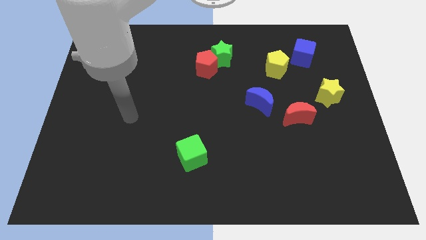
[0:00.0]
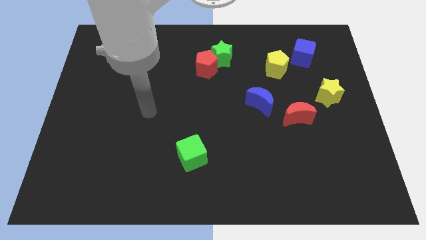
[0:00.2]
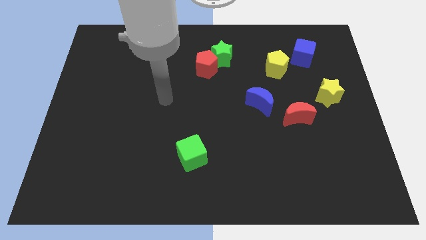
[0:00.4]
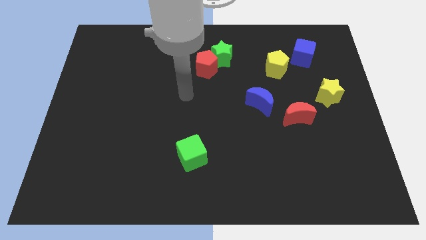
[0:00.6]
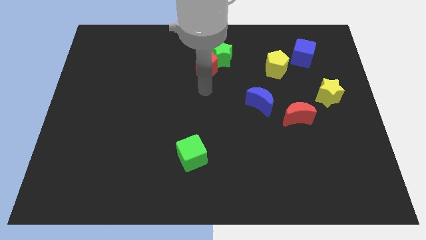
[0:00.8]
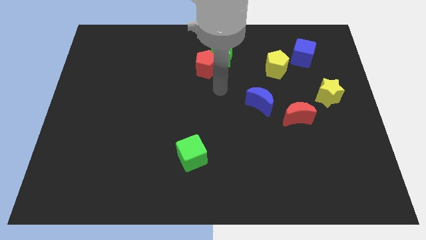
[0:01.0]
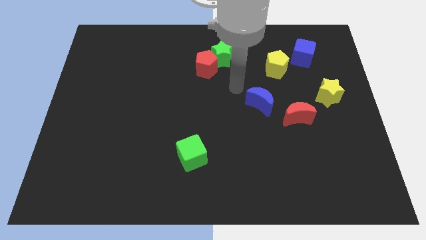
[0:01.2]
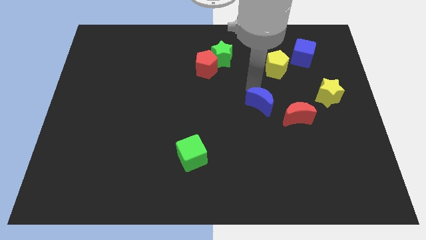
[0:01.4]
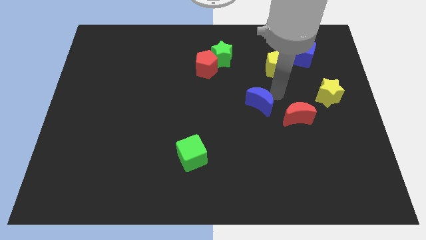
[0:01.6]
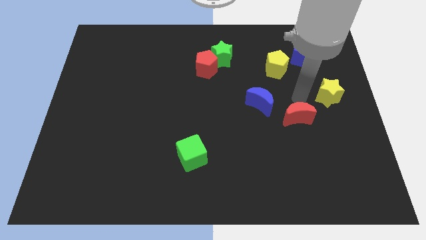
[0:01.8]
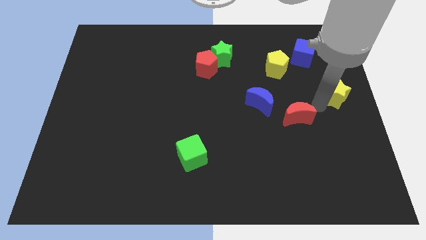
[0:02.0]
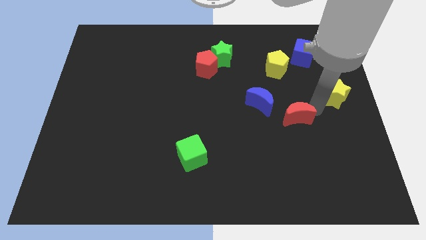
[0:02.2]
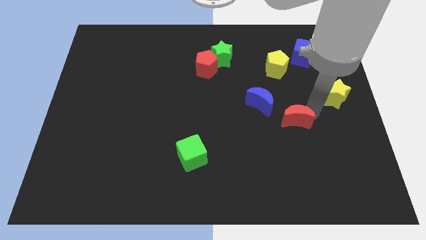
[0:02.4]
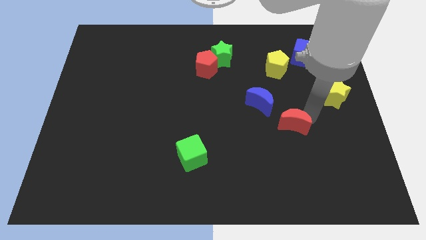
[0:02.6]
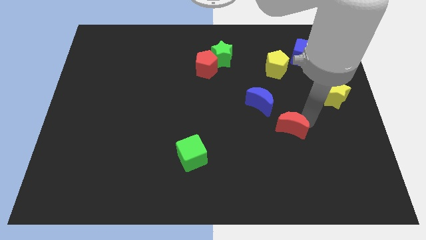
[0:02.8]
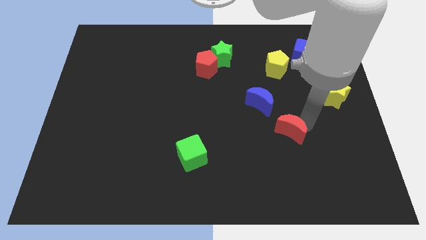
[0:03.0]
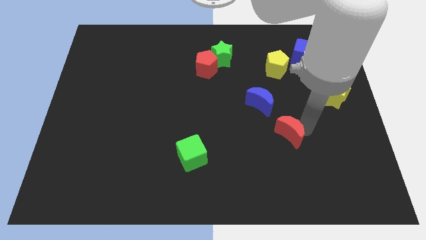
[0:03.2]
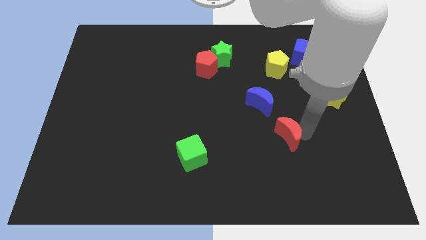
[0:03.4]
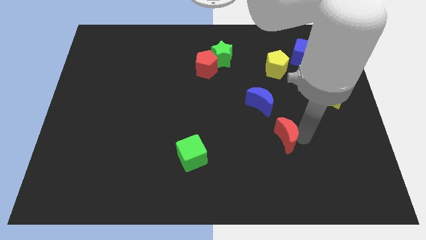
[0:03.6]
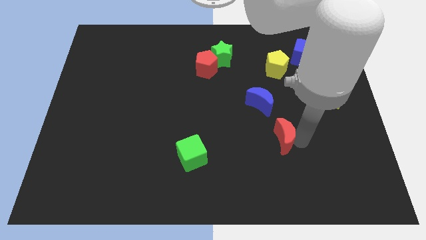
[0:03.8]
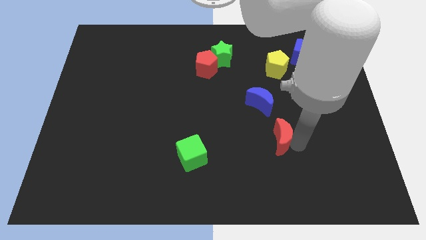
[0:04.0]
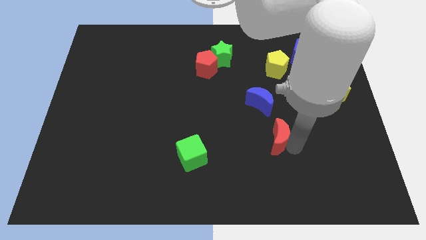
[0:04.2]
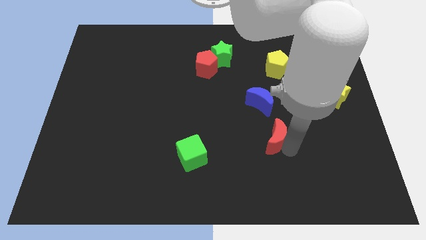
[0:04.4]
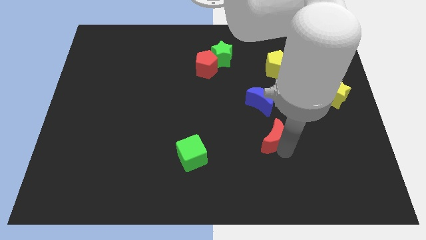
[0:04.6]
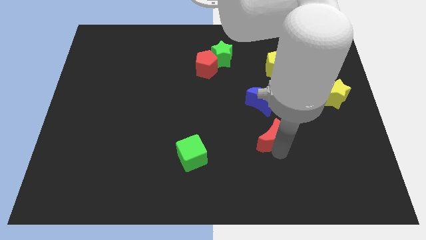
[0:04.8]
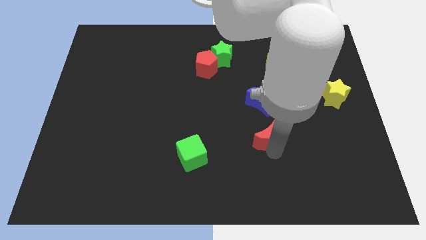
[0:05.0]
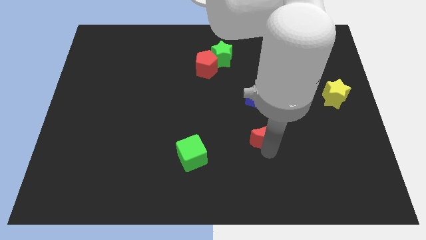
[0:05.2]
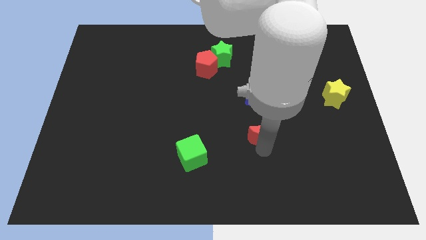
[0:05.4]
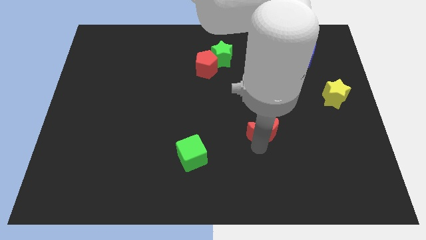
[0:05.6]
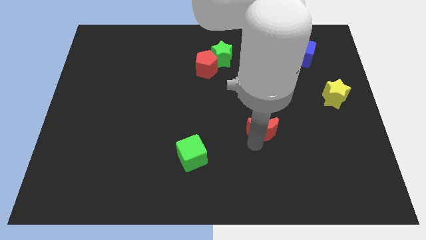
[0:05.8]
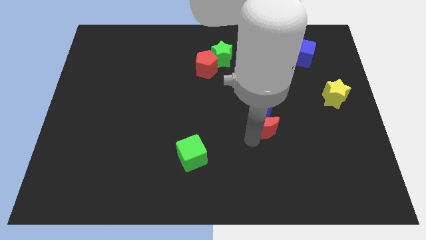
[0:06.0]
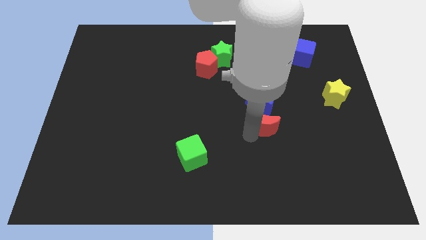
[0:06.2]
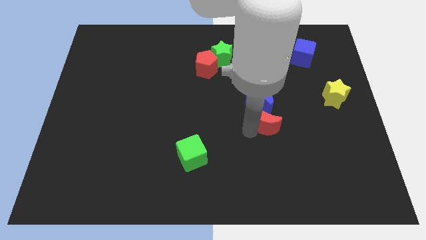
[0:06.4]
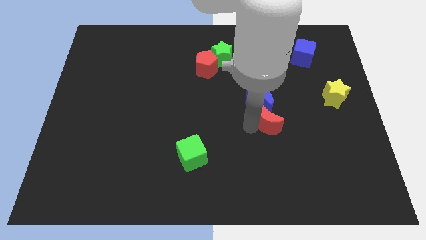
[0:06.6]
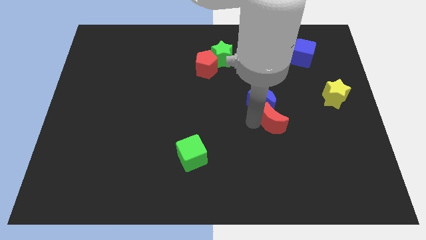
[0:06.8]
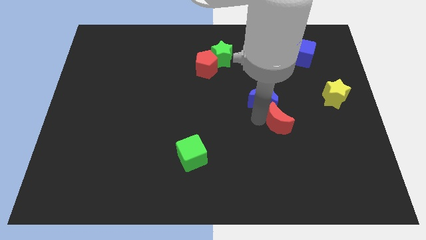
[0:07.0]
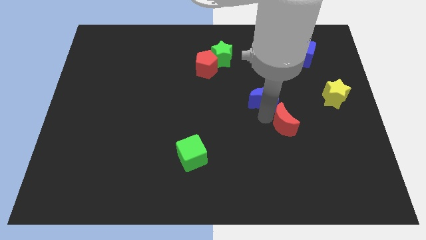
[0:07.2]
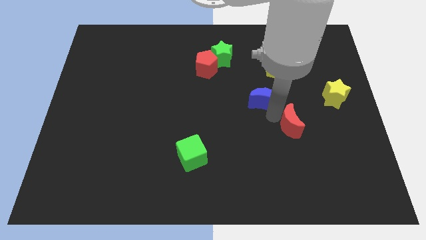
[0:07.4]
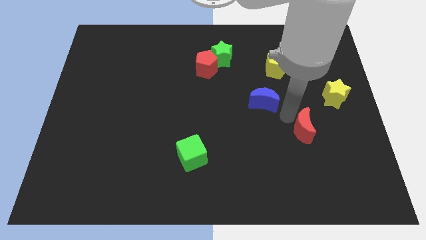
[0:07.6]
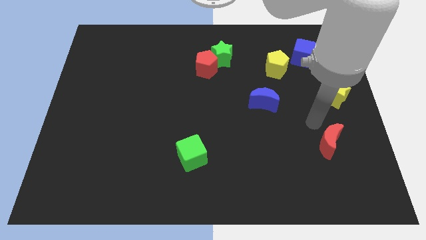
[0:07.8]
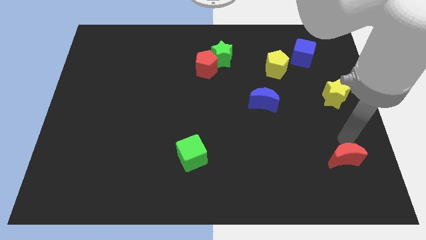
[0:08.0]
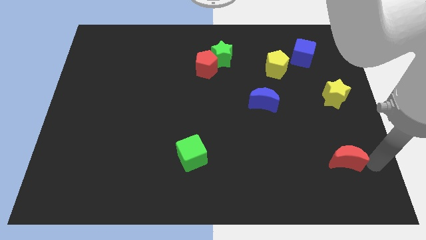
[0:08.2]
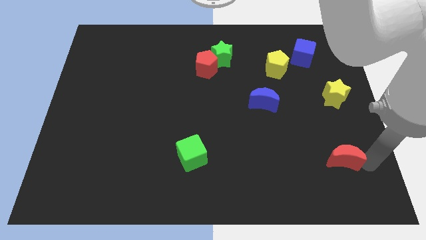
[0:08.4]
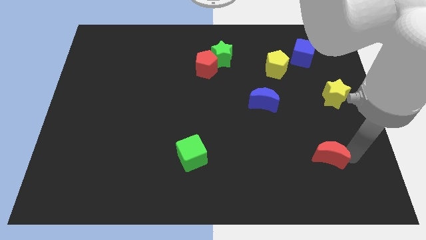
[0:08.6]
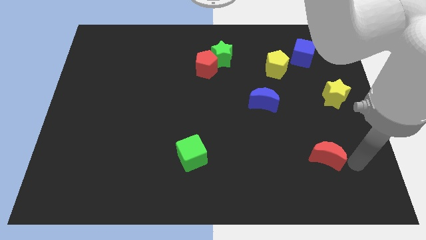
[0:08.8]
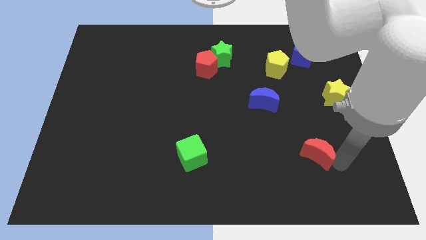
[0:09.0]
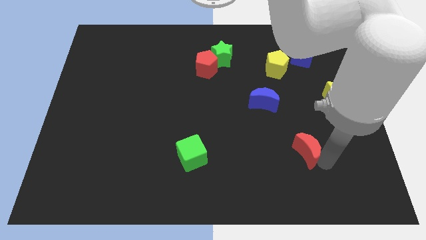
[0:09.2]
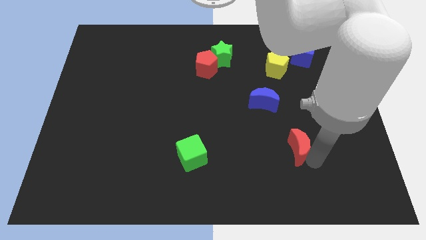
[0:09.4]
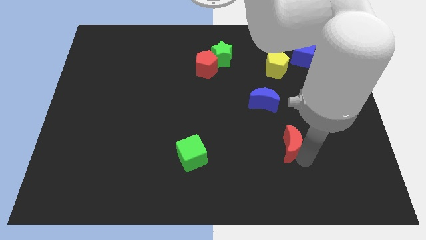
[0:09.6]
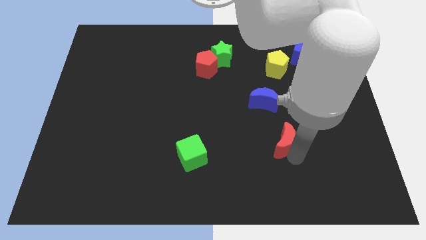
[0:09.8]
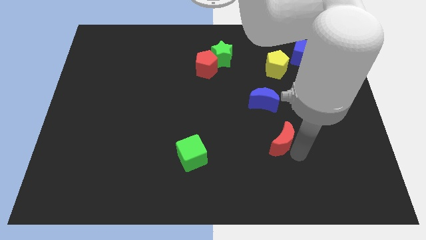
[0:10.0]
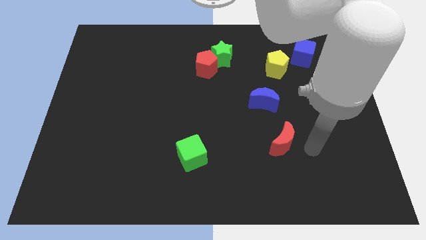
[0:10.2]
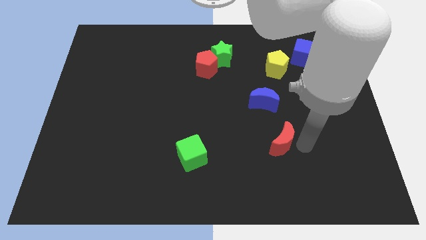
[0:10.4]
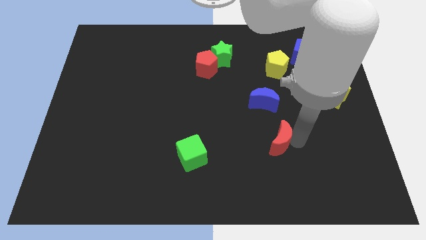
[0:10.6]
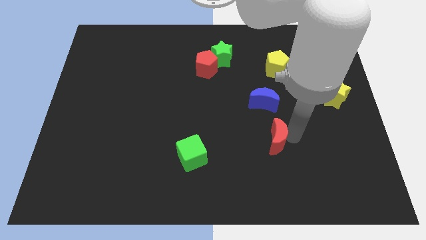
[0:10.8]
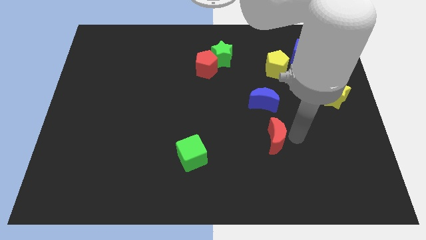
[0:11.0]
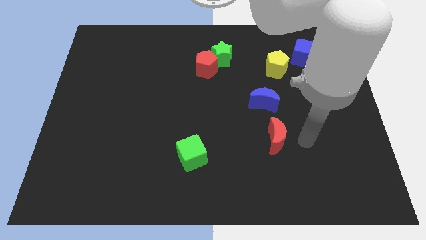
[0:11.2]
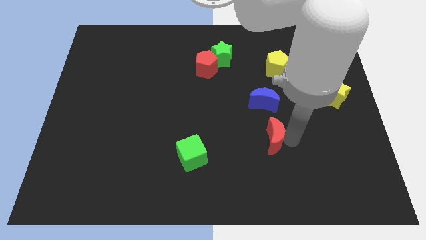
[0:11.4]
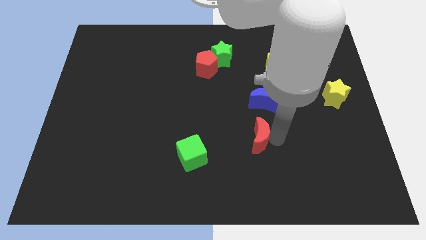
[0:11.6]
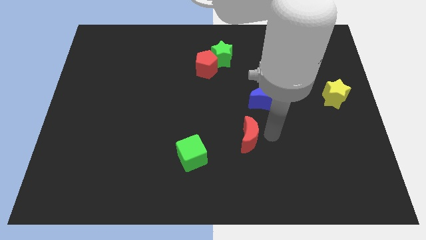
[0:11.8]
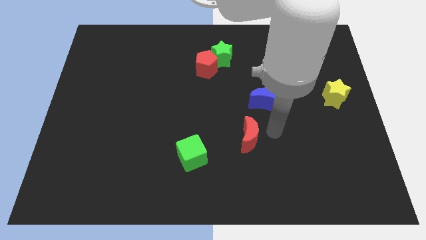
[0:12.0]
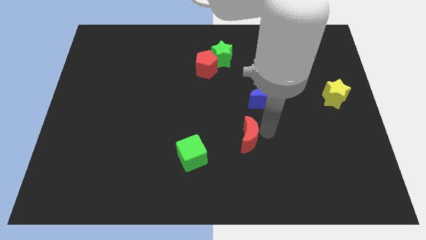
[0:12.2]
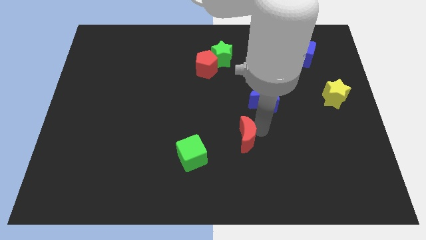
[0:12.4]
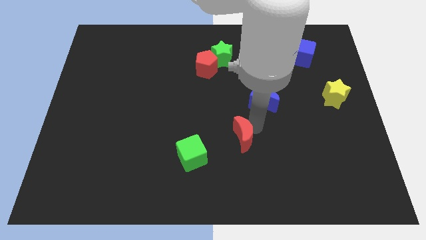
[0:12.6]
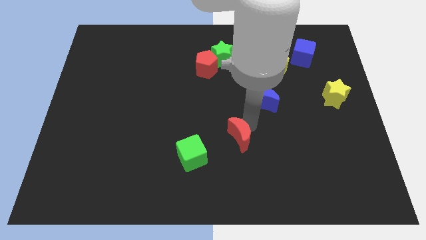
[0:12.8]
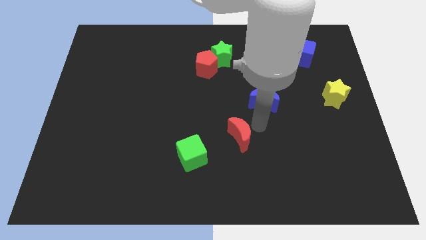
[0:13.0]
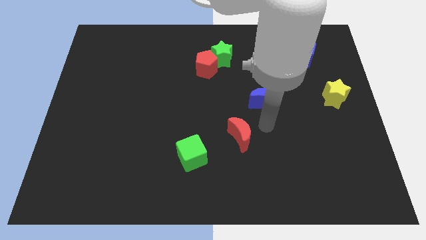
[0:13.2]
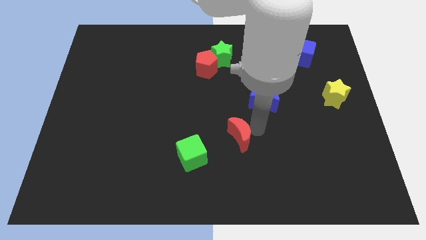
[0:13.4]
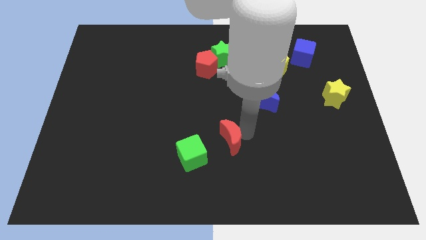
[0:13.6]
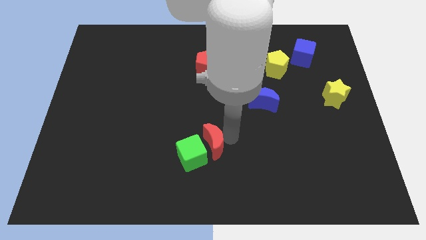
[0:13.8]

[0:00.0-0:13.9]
push the red moon to the green cube

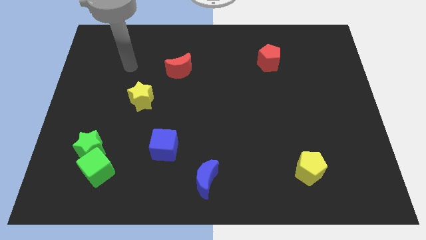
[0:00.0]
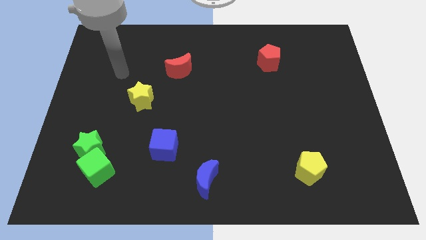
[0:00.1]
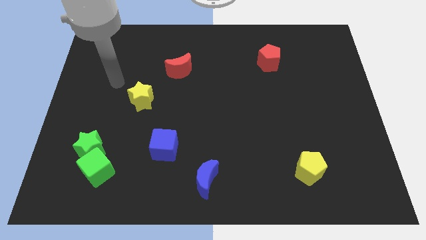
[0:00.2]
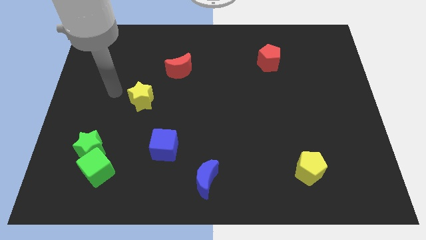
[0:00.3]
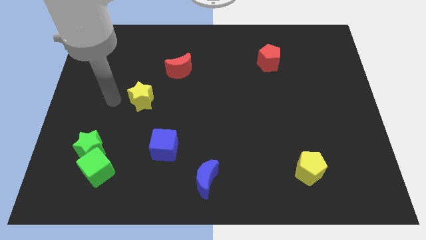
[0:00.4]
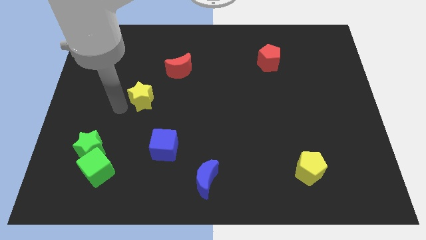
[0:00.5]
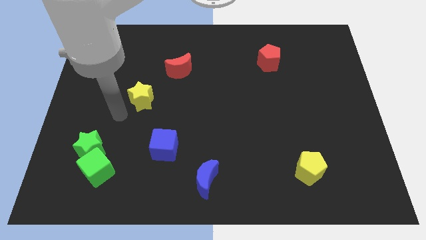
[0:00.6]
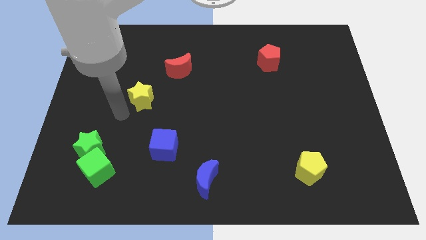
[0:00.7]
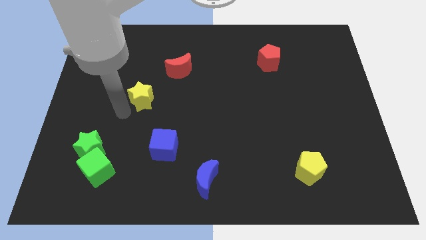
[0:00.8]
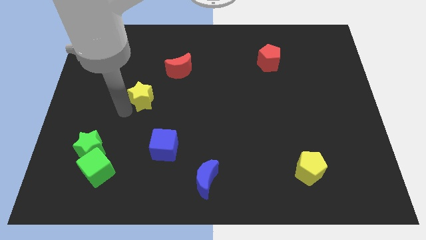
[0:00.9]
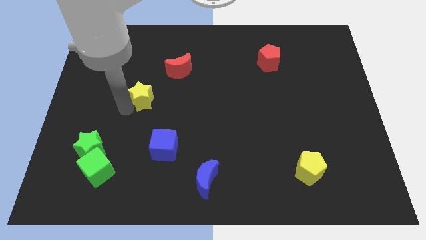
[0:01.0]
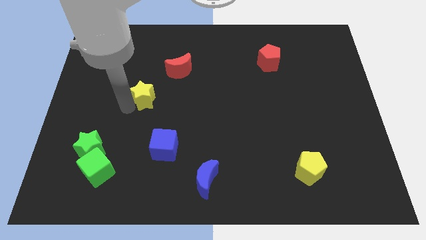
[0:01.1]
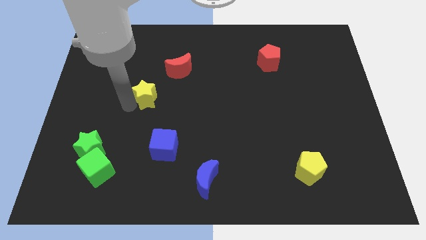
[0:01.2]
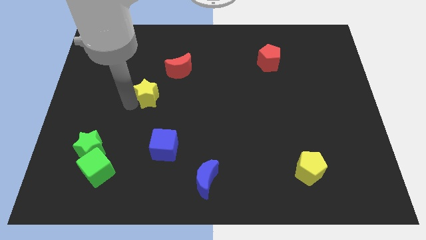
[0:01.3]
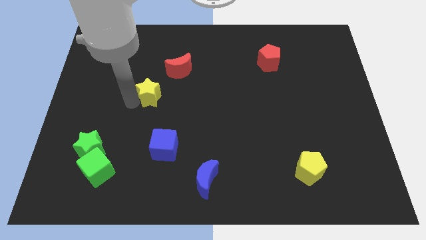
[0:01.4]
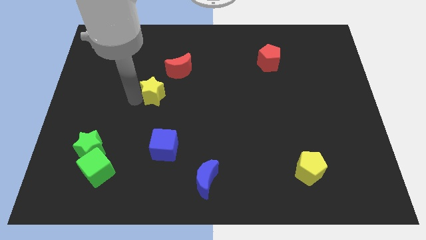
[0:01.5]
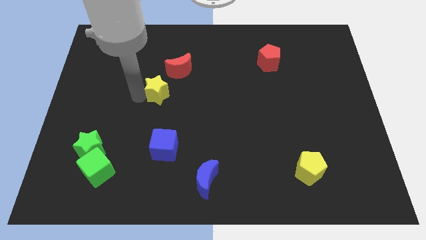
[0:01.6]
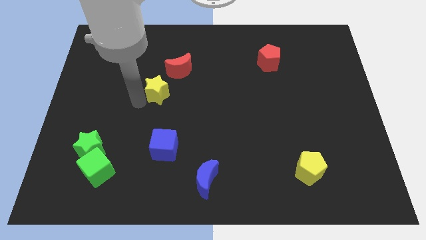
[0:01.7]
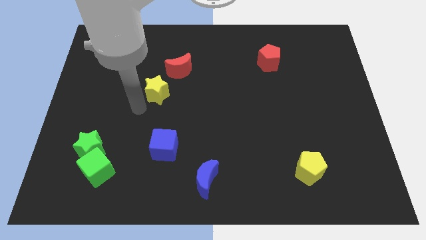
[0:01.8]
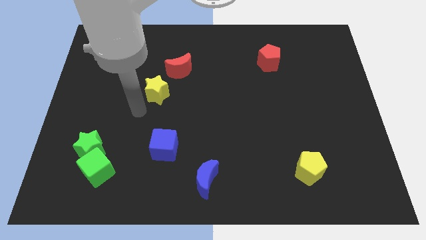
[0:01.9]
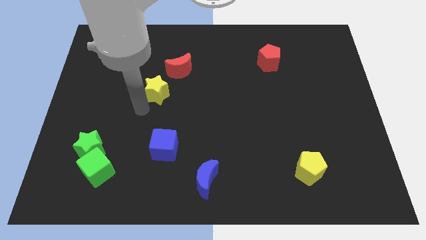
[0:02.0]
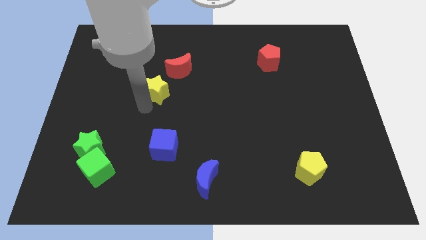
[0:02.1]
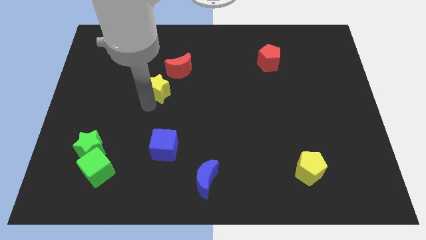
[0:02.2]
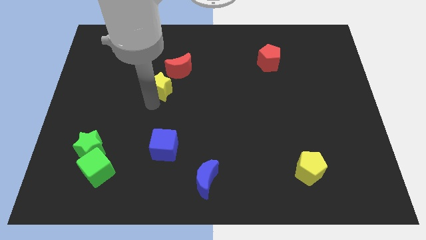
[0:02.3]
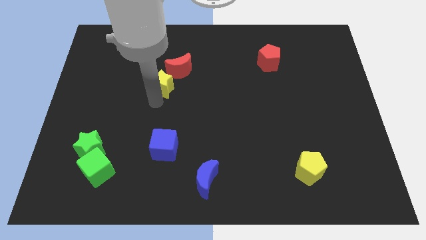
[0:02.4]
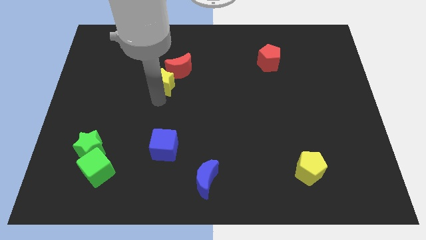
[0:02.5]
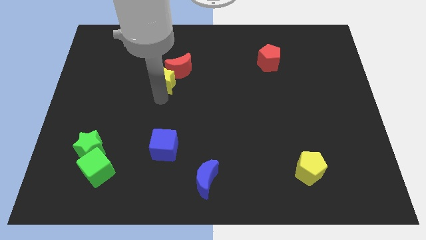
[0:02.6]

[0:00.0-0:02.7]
push the yellow star close to the red moon
